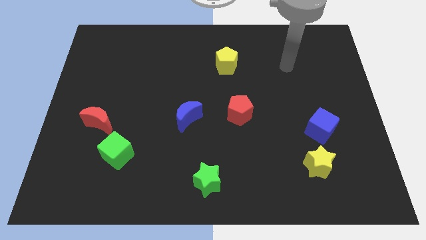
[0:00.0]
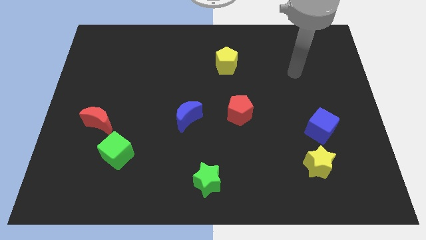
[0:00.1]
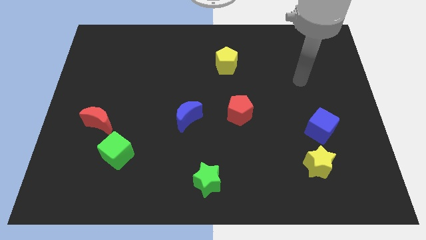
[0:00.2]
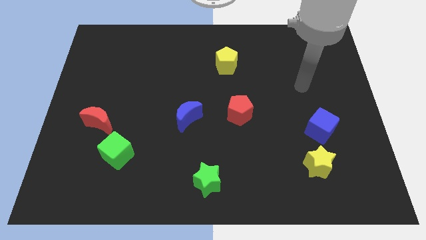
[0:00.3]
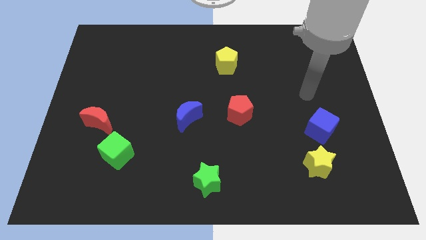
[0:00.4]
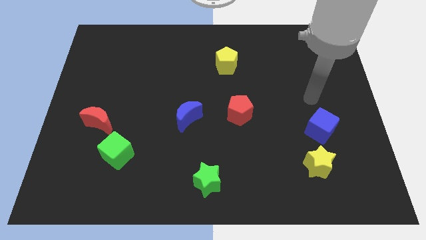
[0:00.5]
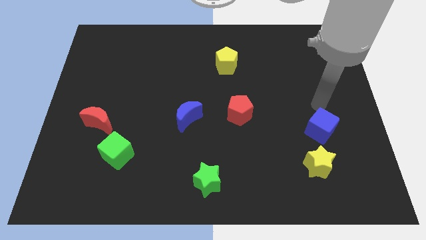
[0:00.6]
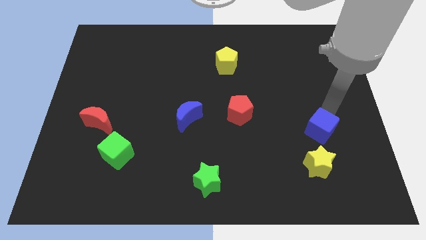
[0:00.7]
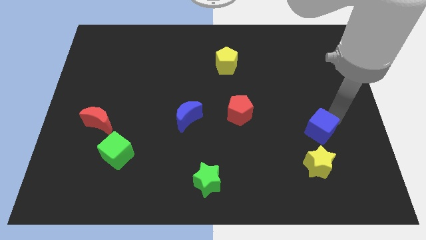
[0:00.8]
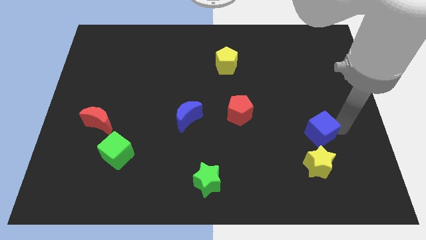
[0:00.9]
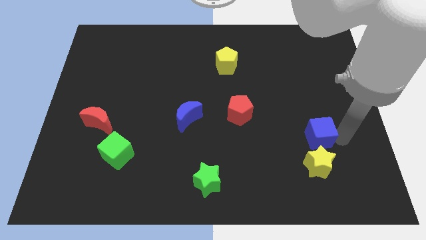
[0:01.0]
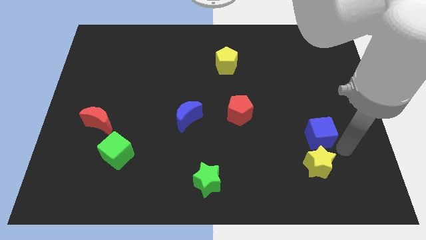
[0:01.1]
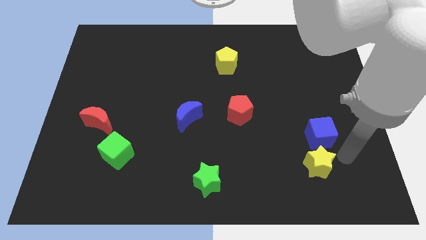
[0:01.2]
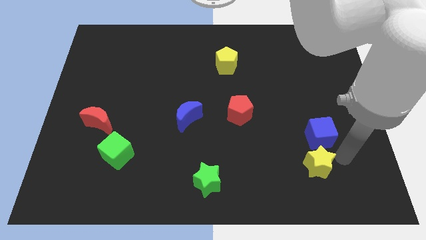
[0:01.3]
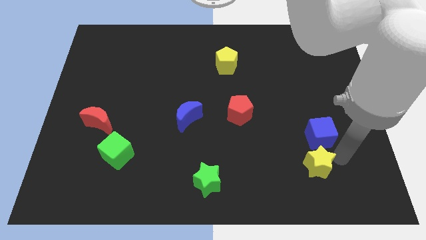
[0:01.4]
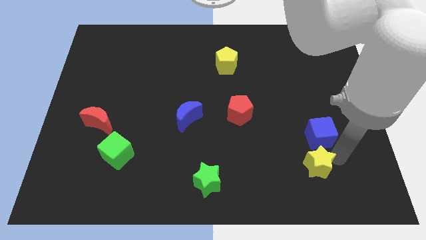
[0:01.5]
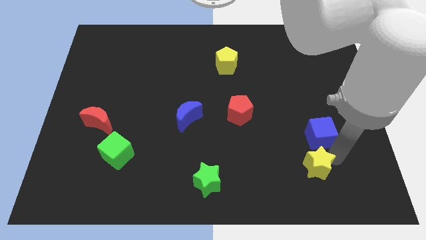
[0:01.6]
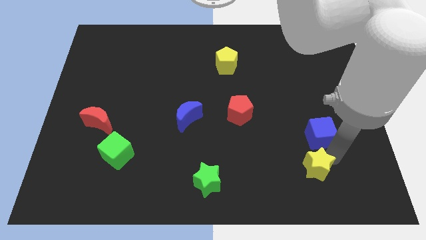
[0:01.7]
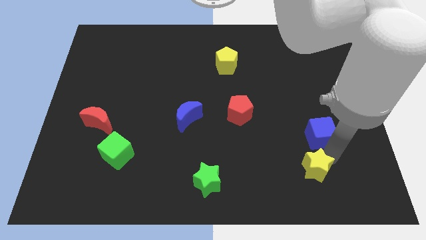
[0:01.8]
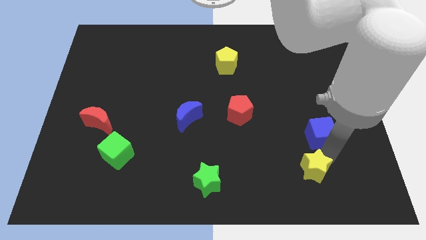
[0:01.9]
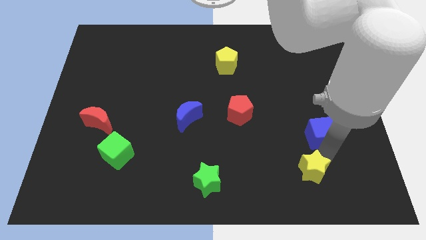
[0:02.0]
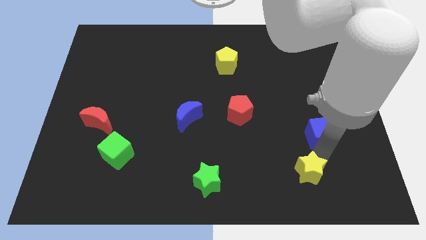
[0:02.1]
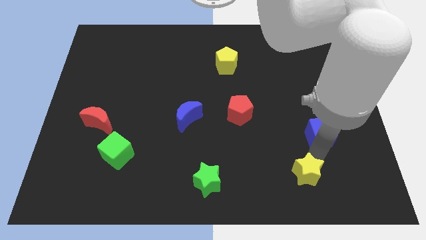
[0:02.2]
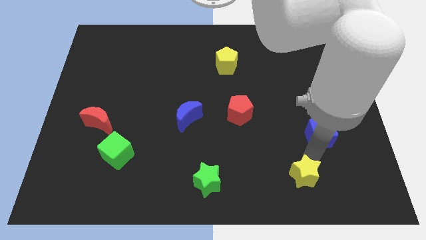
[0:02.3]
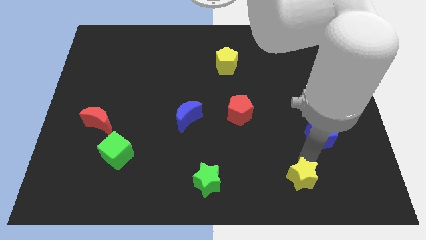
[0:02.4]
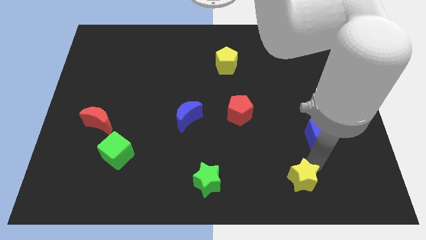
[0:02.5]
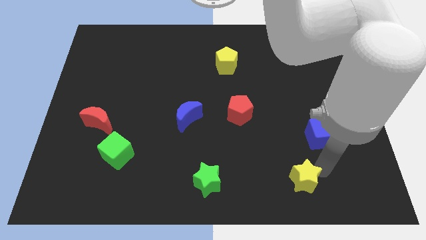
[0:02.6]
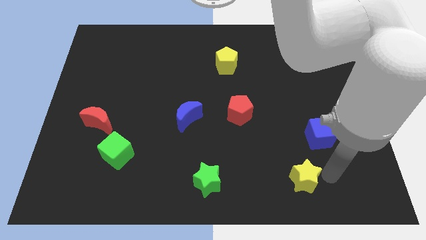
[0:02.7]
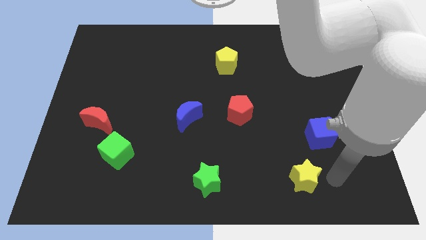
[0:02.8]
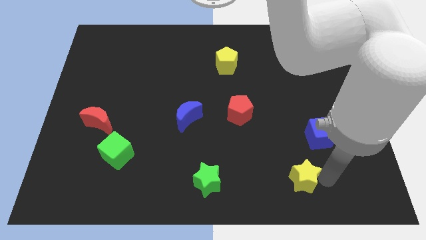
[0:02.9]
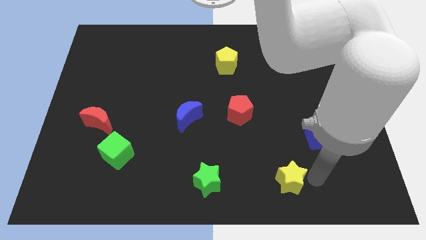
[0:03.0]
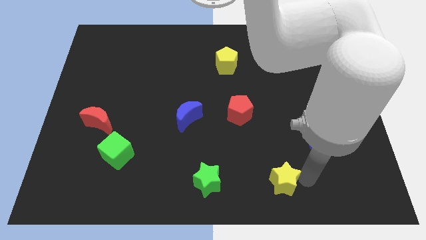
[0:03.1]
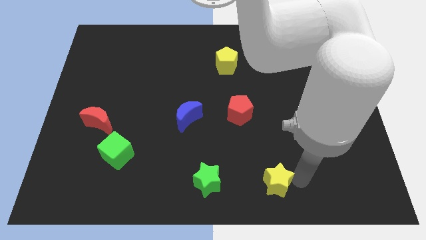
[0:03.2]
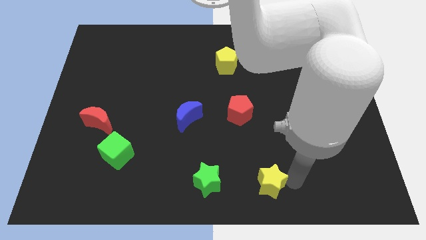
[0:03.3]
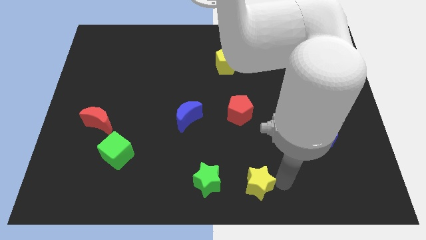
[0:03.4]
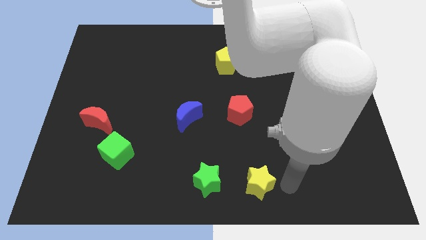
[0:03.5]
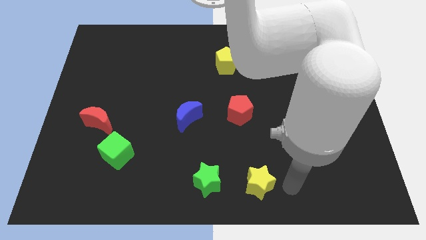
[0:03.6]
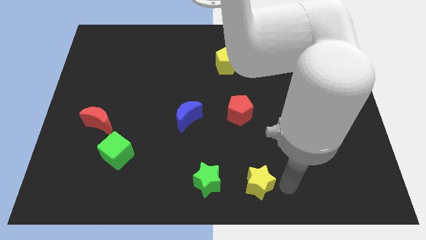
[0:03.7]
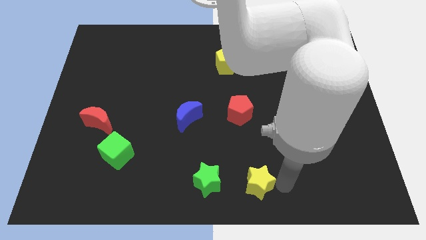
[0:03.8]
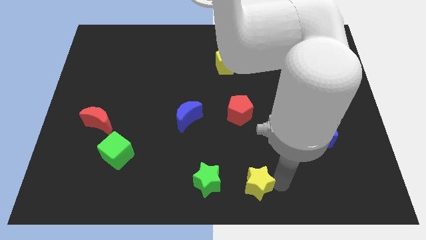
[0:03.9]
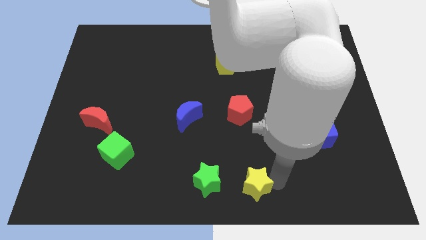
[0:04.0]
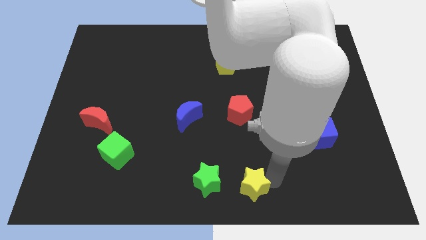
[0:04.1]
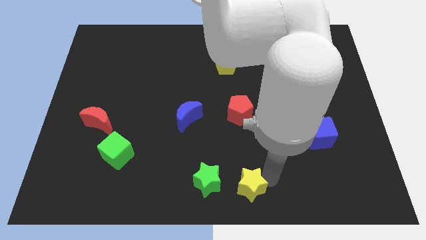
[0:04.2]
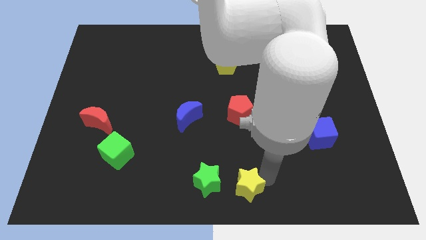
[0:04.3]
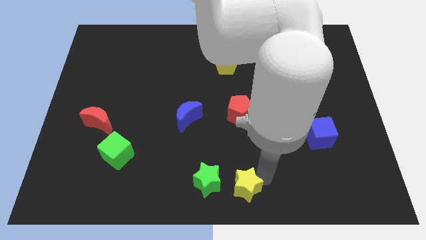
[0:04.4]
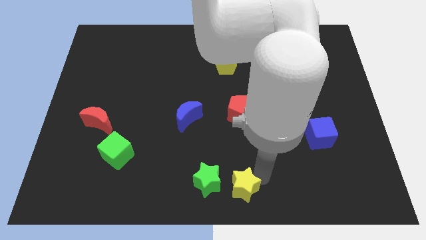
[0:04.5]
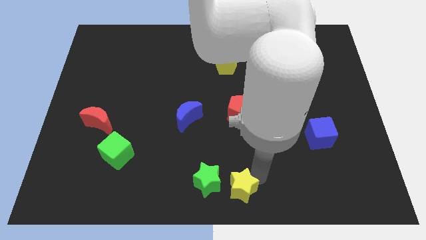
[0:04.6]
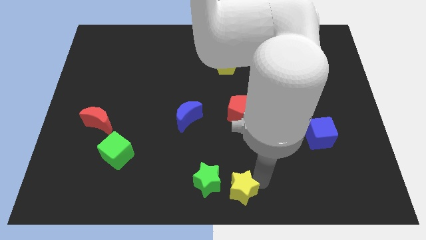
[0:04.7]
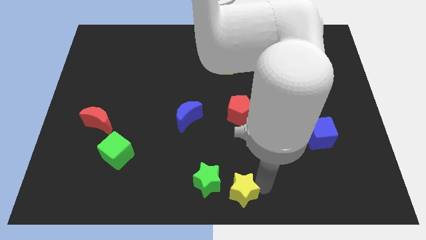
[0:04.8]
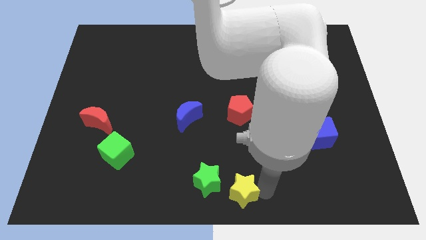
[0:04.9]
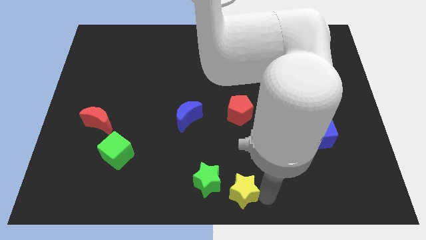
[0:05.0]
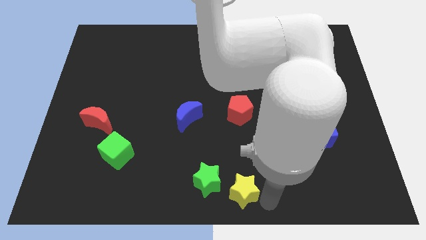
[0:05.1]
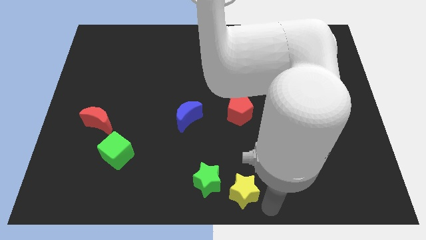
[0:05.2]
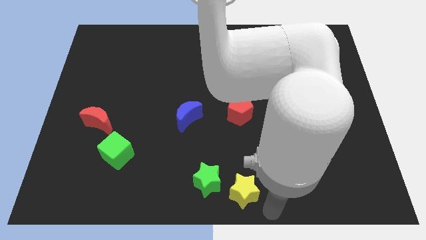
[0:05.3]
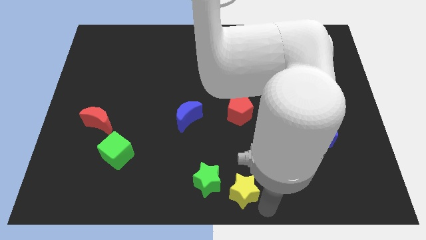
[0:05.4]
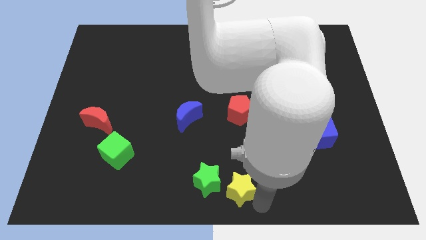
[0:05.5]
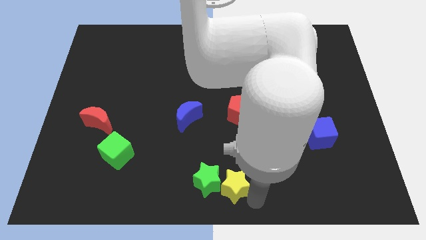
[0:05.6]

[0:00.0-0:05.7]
put the yellow star close to the green star

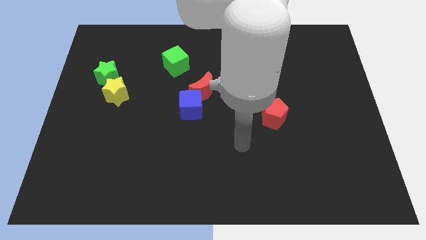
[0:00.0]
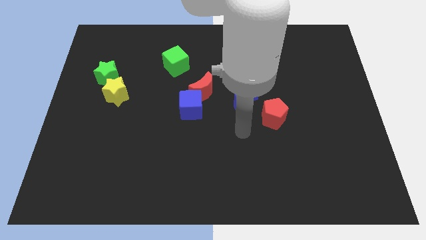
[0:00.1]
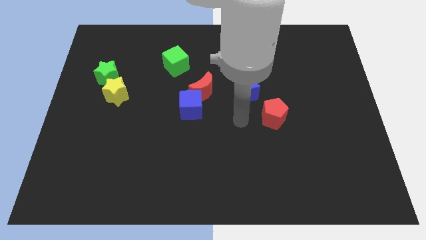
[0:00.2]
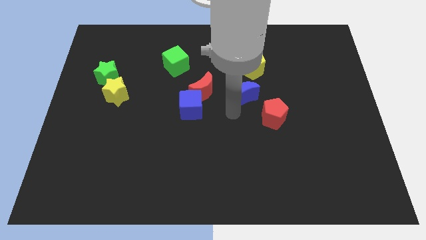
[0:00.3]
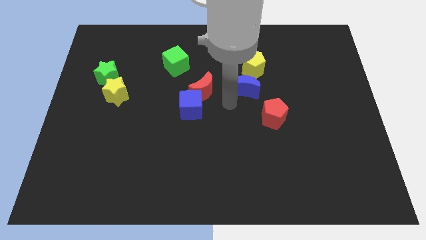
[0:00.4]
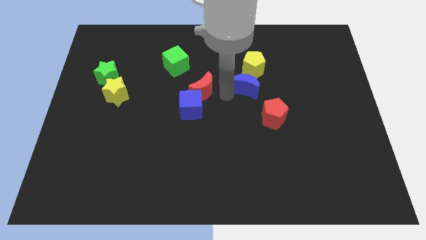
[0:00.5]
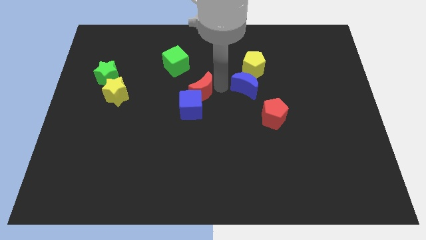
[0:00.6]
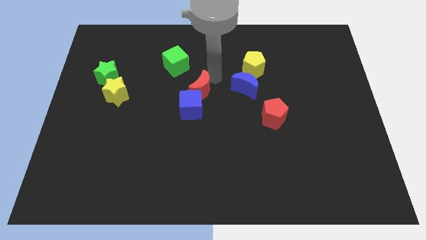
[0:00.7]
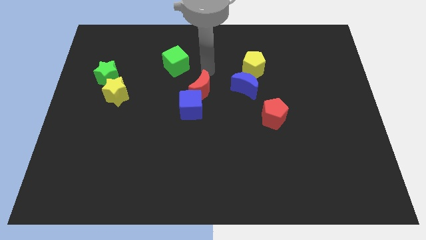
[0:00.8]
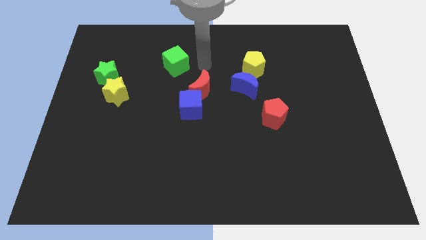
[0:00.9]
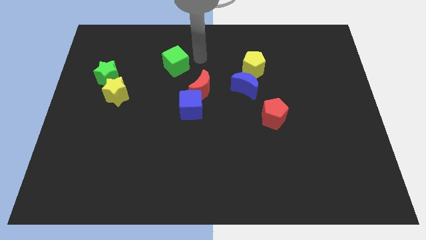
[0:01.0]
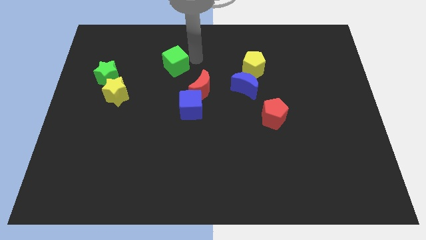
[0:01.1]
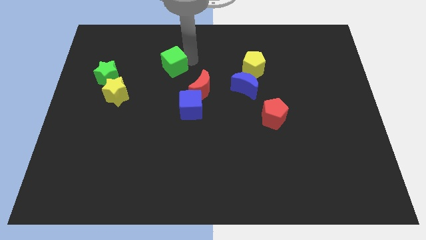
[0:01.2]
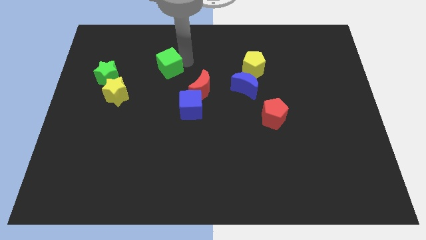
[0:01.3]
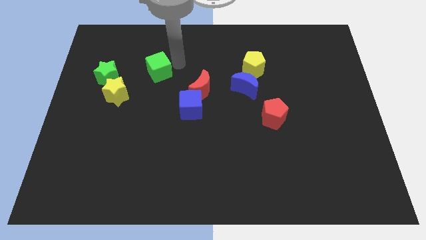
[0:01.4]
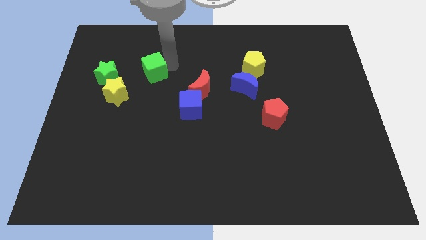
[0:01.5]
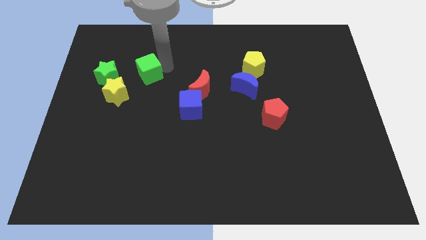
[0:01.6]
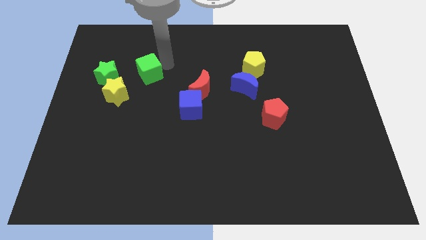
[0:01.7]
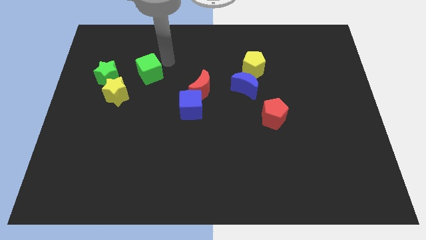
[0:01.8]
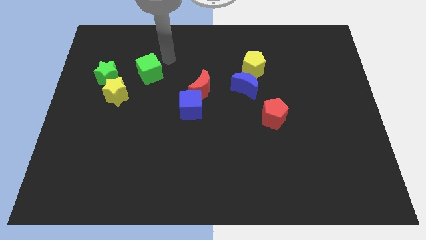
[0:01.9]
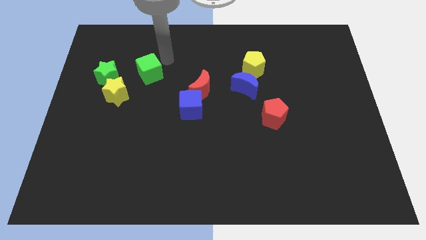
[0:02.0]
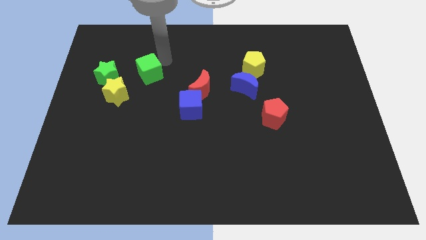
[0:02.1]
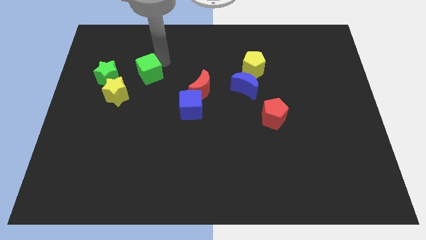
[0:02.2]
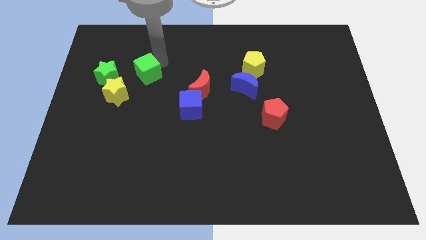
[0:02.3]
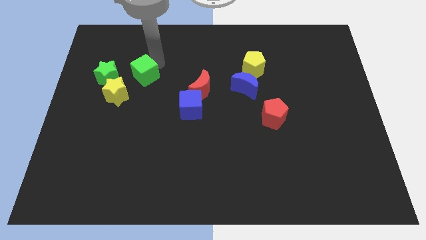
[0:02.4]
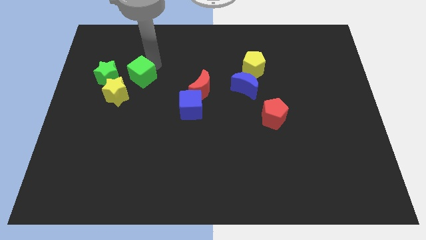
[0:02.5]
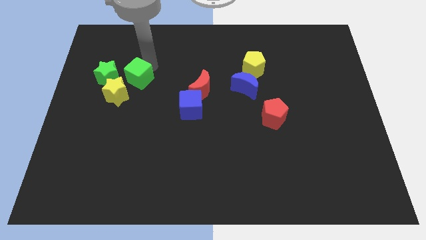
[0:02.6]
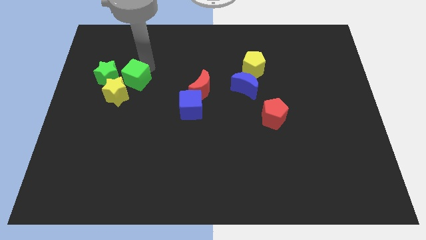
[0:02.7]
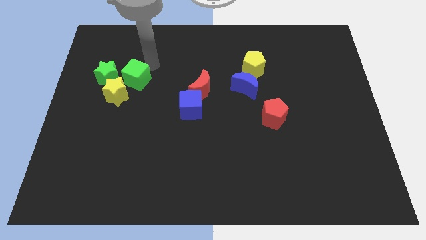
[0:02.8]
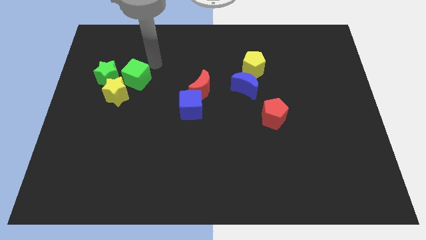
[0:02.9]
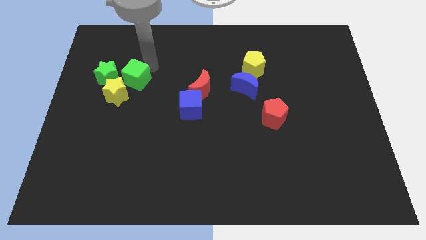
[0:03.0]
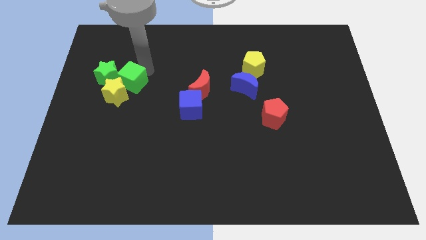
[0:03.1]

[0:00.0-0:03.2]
slide the green cube to the yellow star
